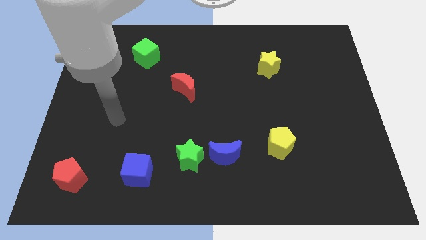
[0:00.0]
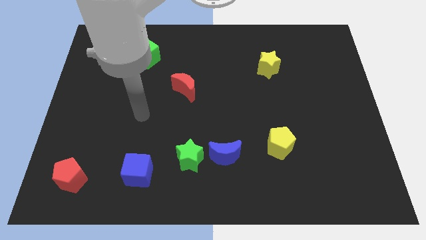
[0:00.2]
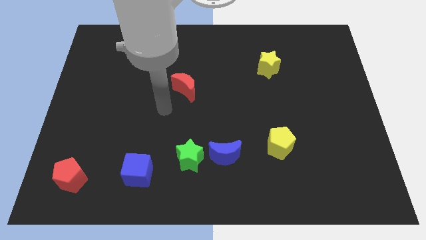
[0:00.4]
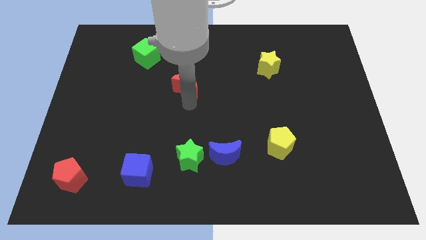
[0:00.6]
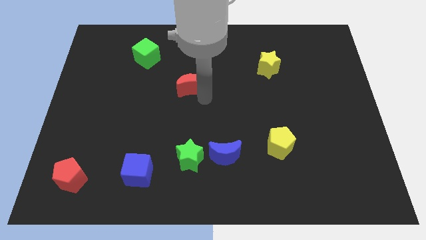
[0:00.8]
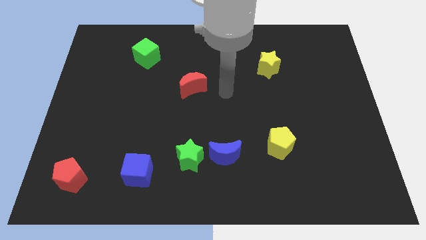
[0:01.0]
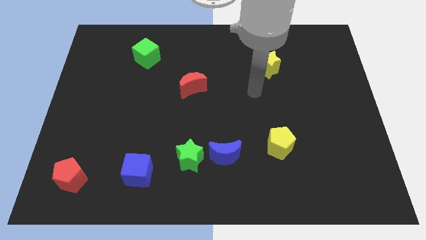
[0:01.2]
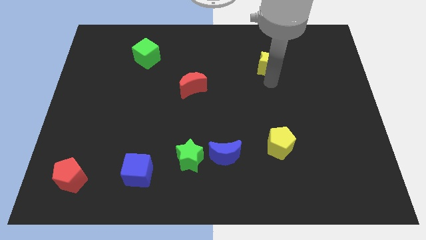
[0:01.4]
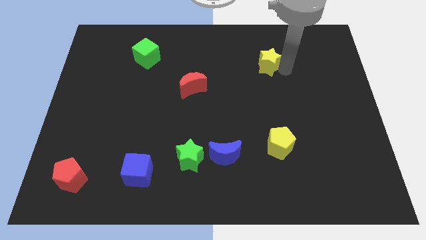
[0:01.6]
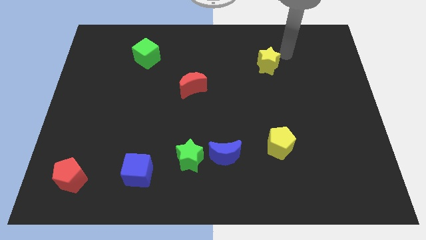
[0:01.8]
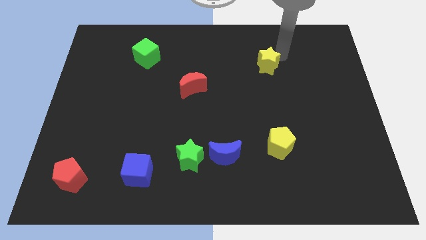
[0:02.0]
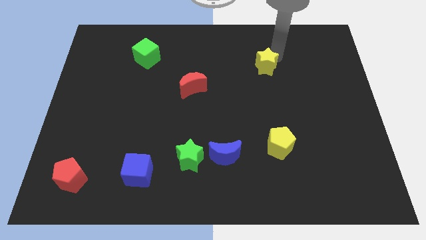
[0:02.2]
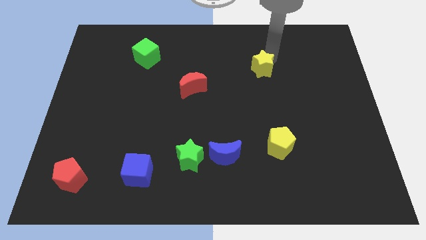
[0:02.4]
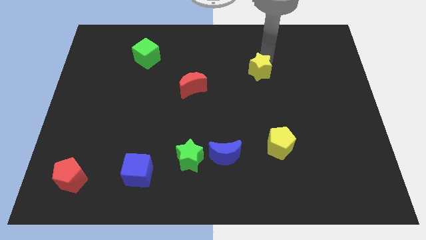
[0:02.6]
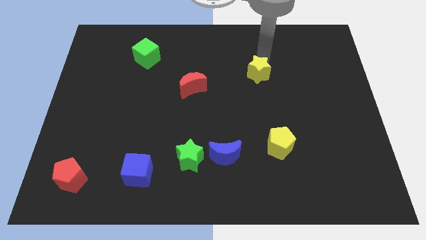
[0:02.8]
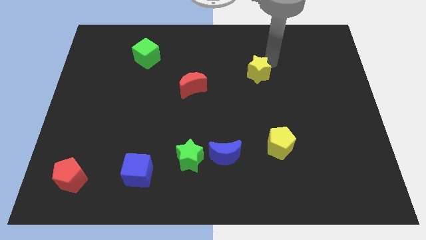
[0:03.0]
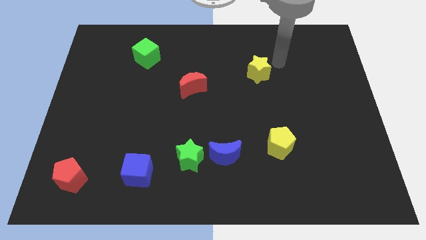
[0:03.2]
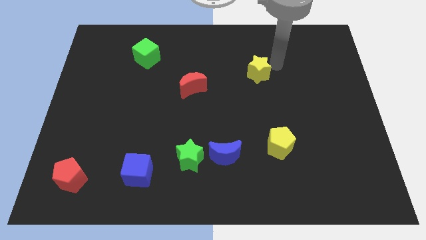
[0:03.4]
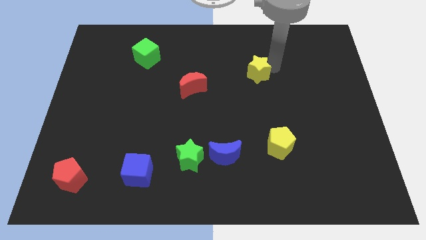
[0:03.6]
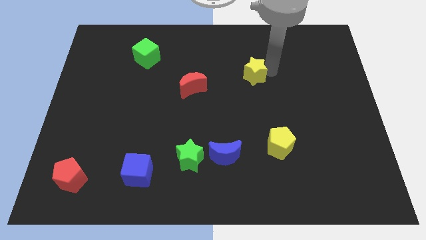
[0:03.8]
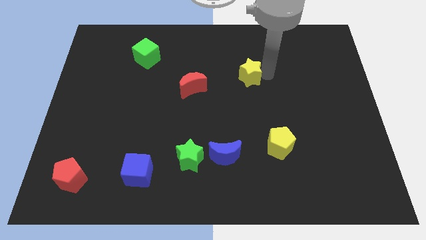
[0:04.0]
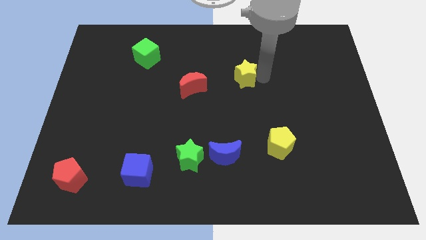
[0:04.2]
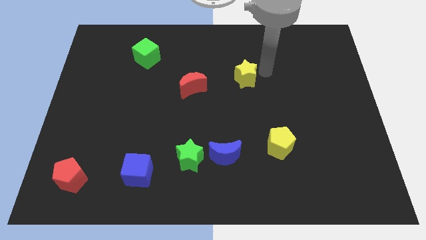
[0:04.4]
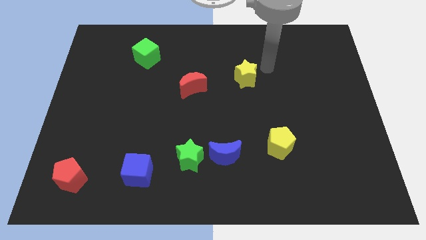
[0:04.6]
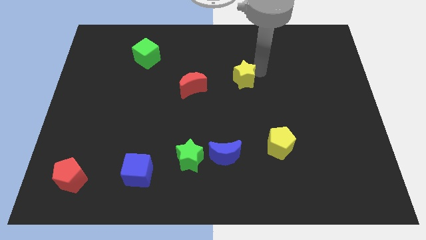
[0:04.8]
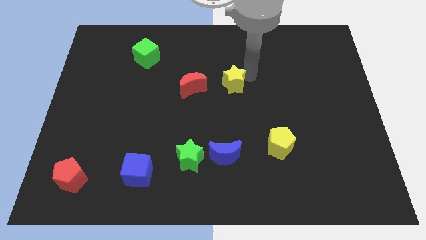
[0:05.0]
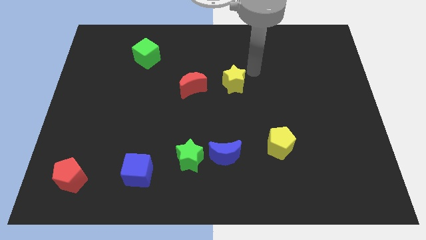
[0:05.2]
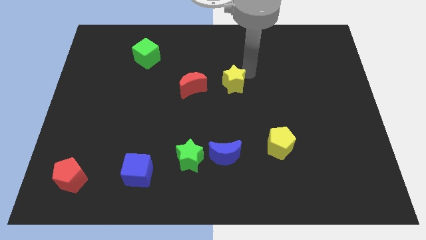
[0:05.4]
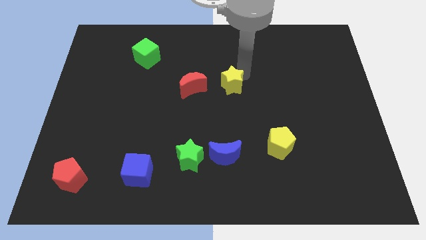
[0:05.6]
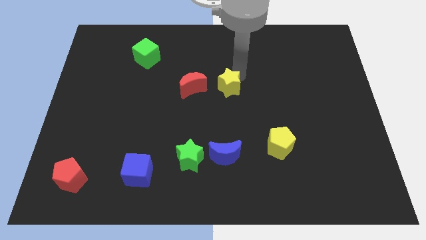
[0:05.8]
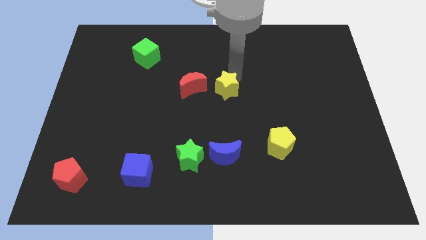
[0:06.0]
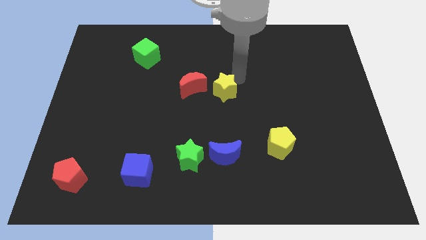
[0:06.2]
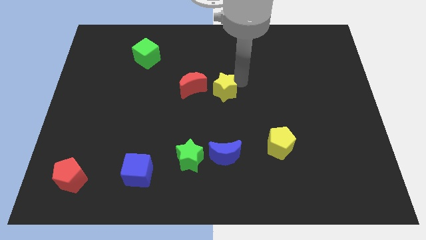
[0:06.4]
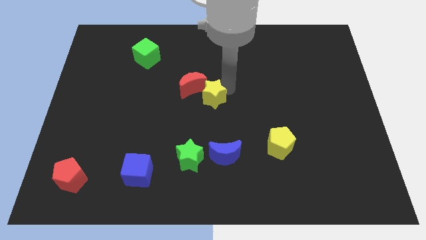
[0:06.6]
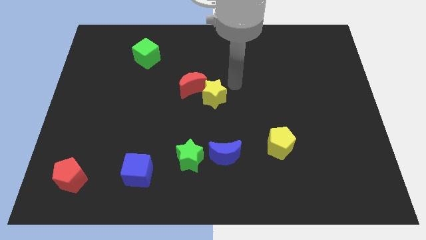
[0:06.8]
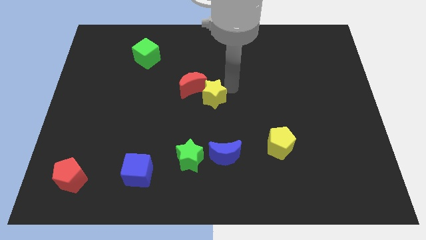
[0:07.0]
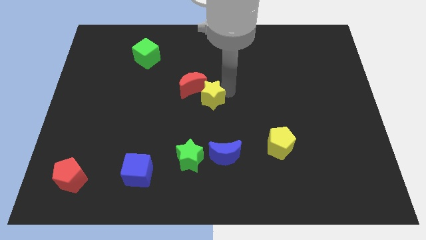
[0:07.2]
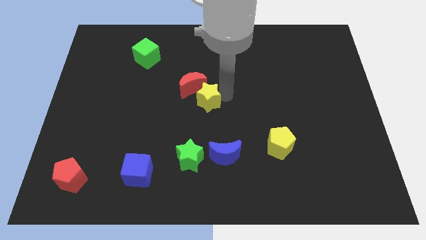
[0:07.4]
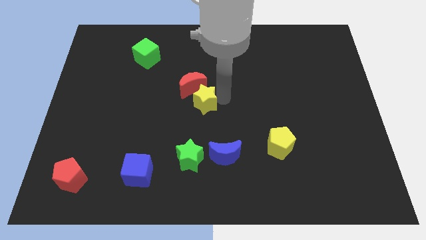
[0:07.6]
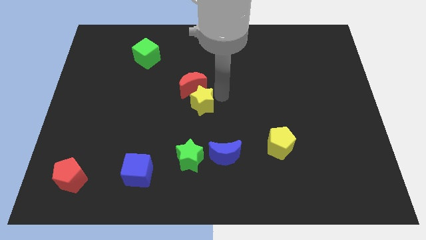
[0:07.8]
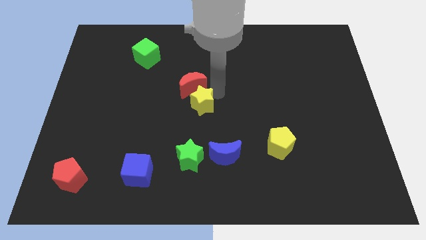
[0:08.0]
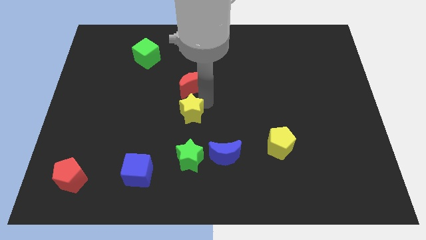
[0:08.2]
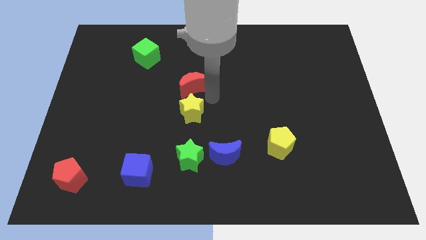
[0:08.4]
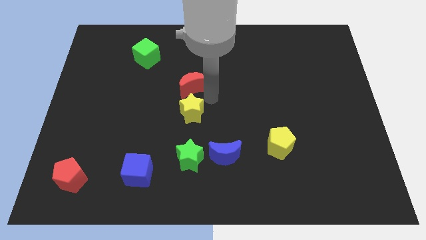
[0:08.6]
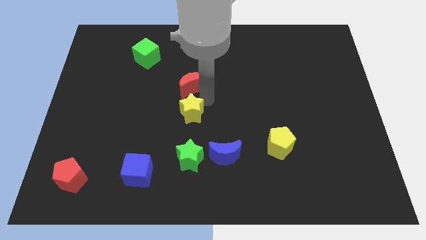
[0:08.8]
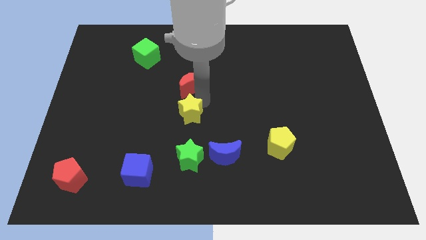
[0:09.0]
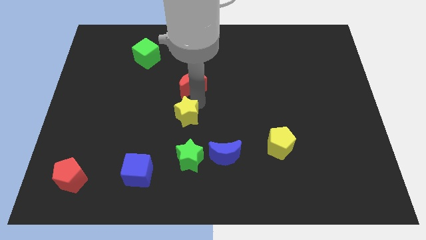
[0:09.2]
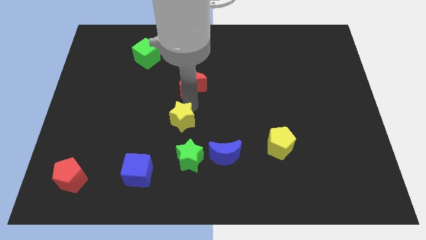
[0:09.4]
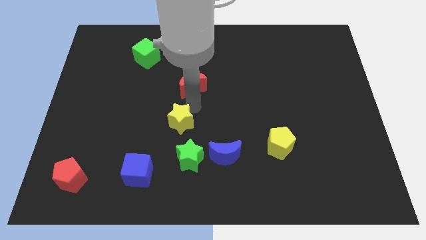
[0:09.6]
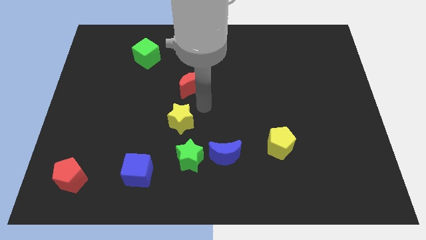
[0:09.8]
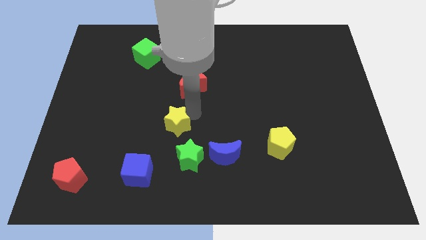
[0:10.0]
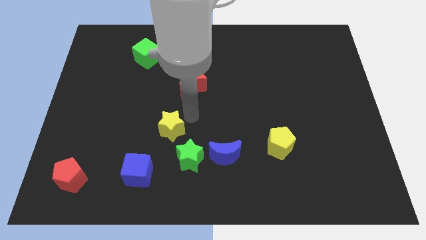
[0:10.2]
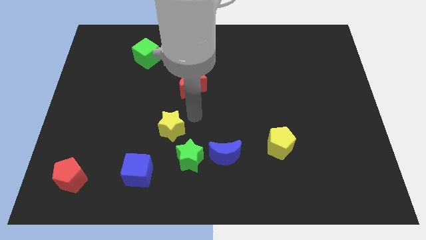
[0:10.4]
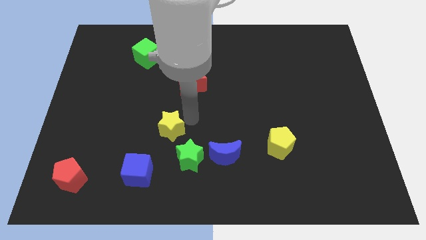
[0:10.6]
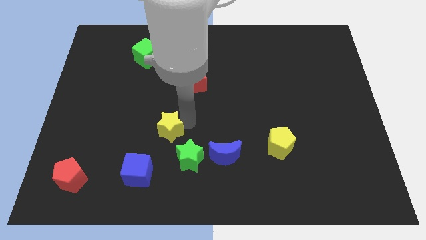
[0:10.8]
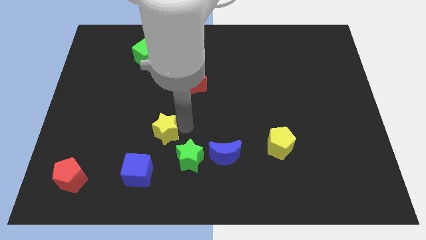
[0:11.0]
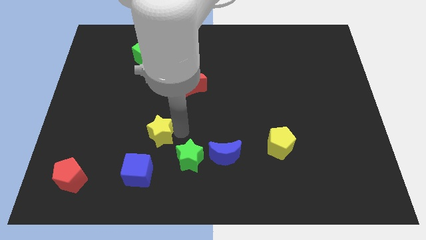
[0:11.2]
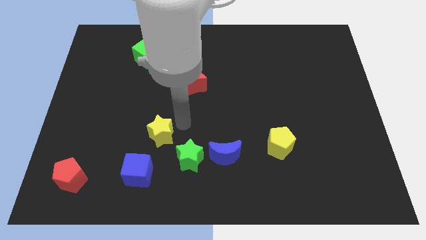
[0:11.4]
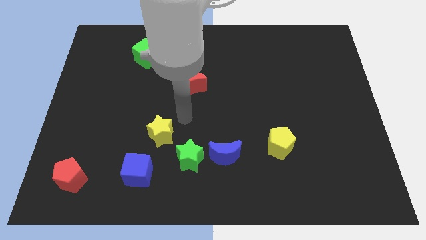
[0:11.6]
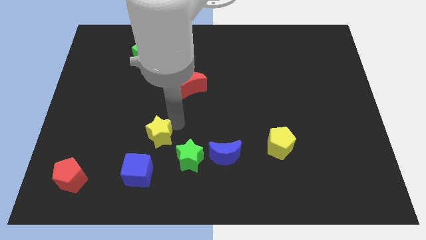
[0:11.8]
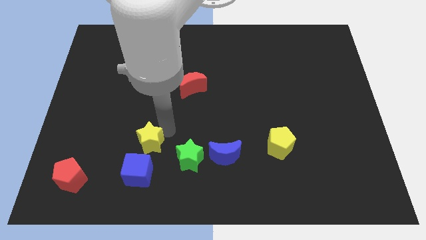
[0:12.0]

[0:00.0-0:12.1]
move the yellow star left of the green star

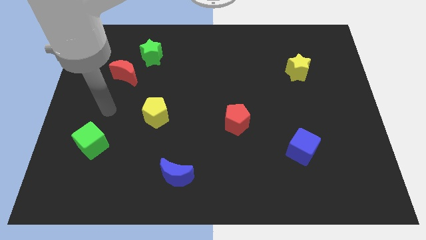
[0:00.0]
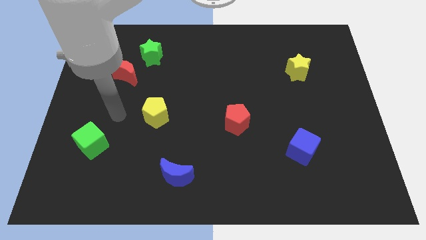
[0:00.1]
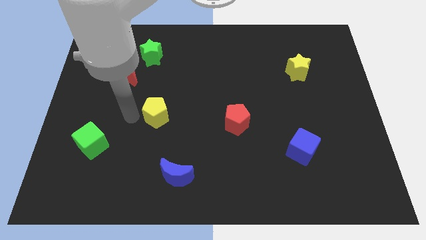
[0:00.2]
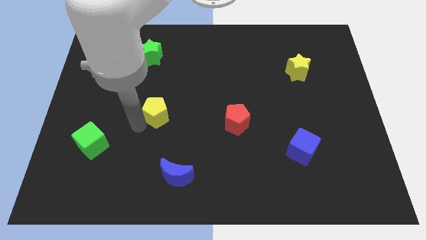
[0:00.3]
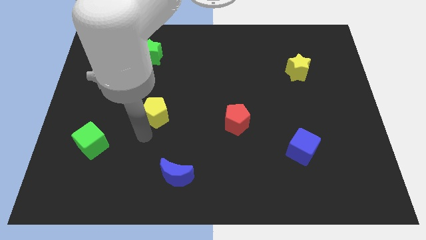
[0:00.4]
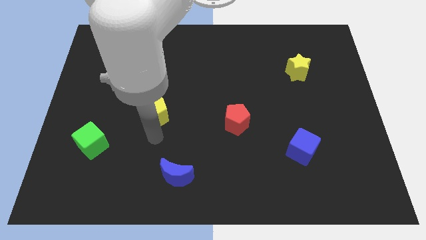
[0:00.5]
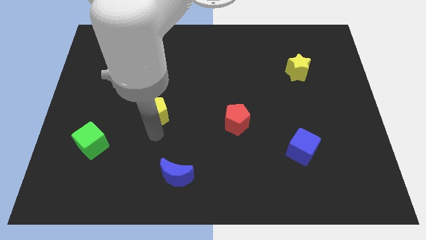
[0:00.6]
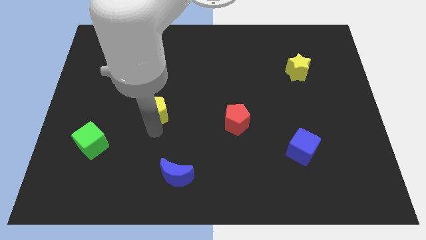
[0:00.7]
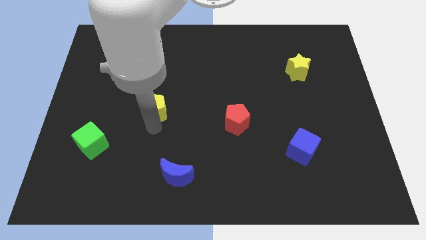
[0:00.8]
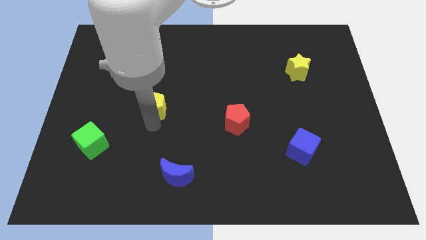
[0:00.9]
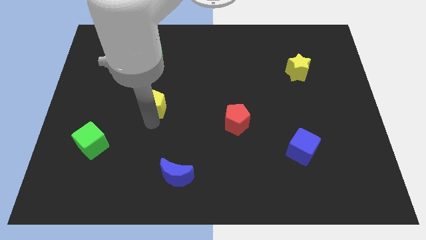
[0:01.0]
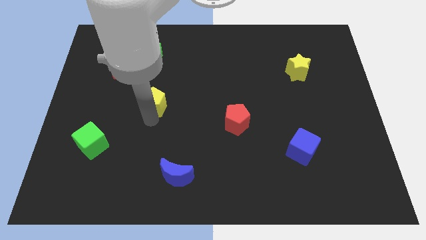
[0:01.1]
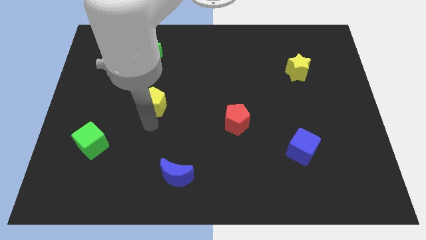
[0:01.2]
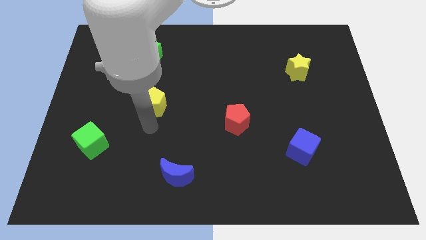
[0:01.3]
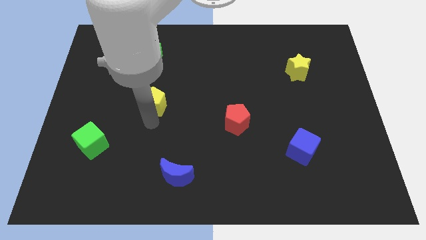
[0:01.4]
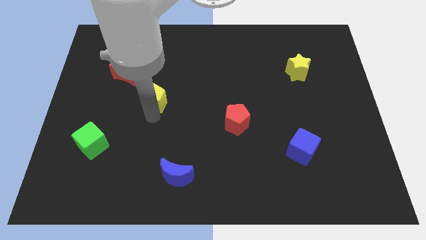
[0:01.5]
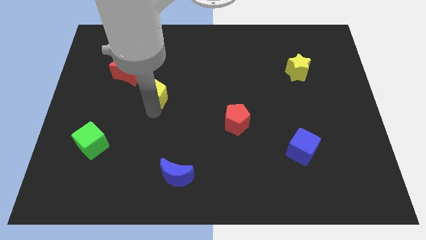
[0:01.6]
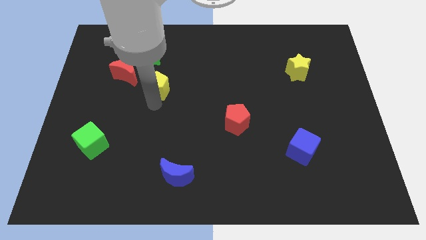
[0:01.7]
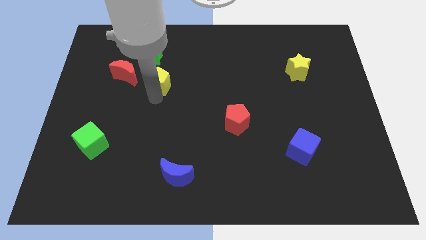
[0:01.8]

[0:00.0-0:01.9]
push the yellow pentagon to the bottom right of the green star

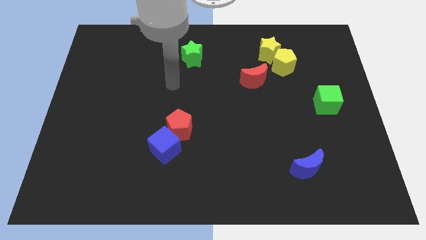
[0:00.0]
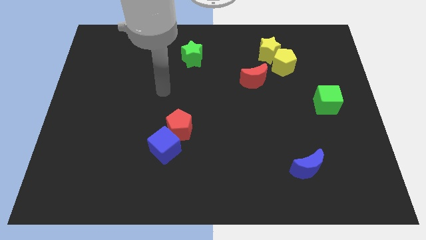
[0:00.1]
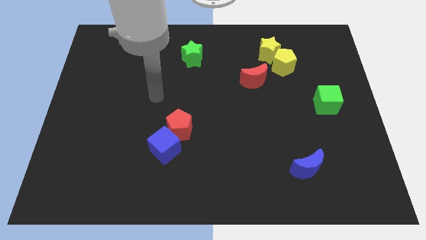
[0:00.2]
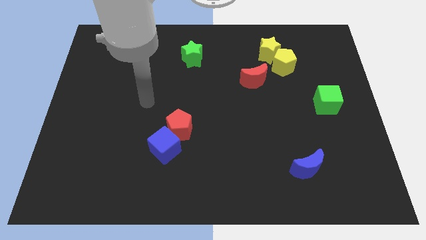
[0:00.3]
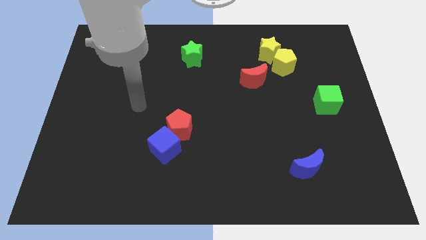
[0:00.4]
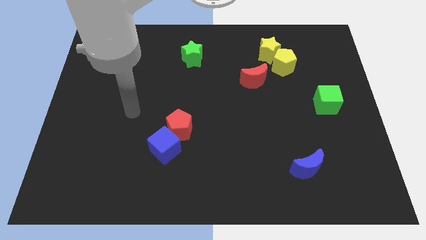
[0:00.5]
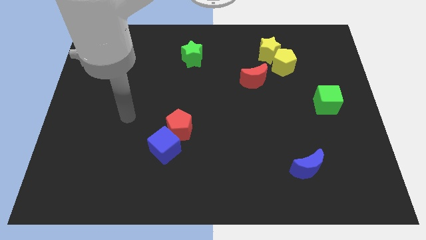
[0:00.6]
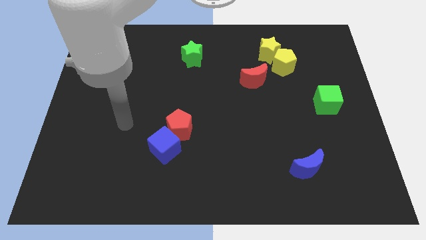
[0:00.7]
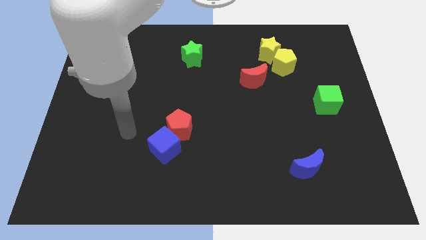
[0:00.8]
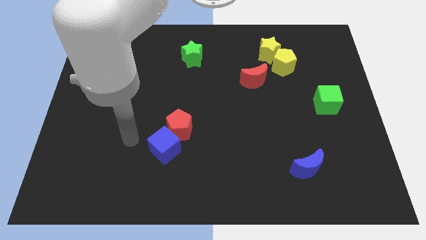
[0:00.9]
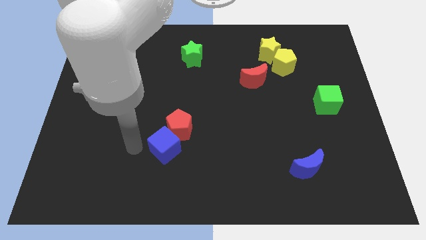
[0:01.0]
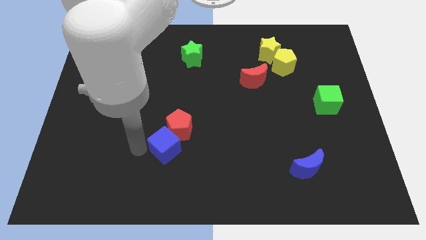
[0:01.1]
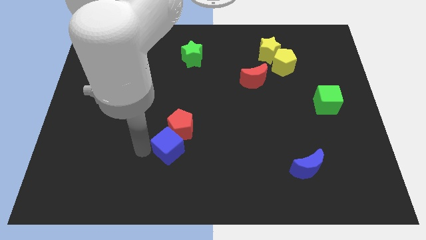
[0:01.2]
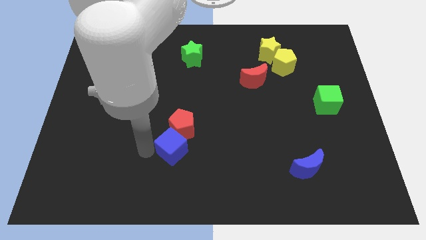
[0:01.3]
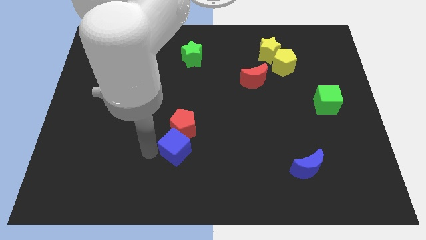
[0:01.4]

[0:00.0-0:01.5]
push the blue cube diagonally down and to the right of the red pentagon
